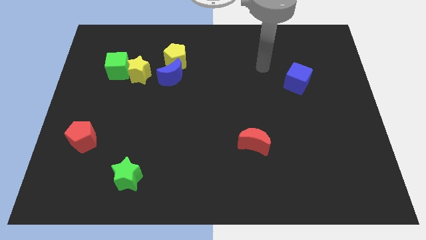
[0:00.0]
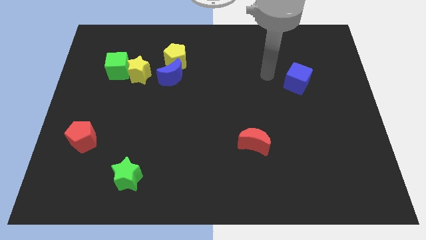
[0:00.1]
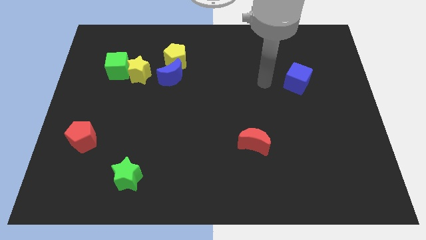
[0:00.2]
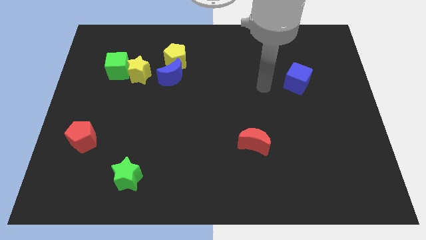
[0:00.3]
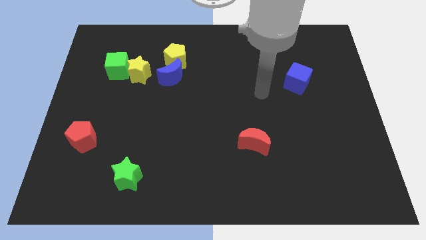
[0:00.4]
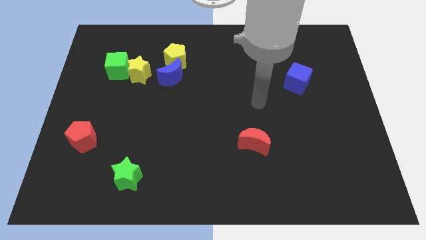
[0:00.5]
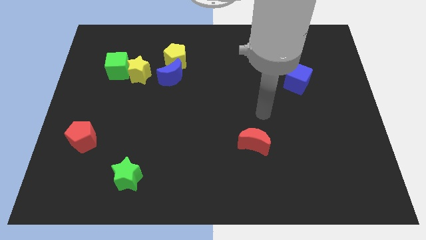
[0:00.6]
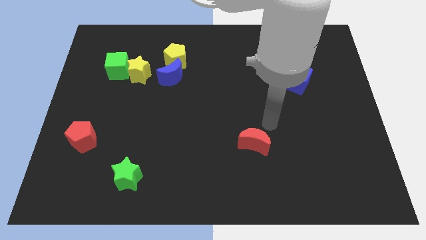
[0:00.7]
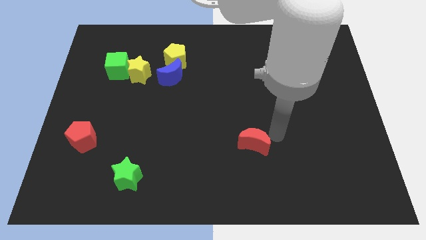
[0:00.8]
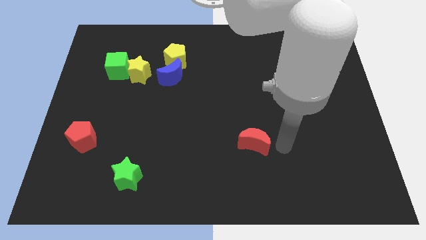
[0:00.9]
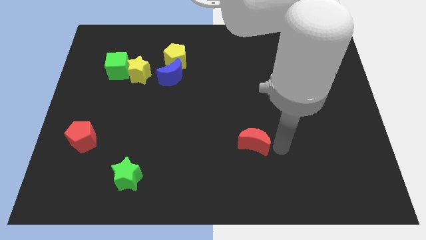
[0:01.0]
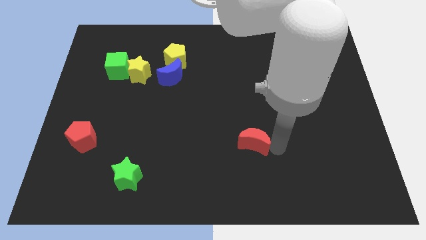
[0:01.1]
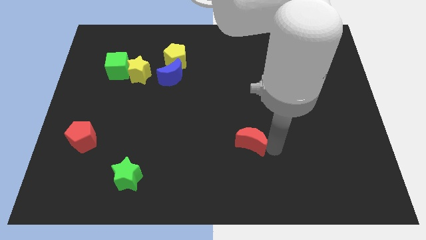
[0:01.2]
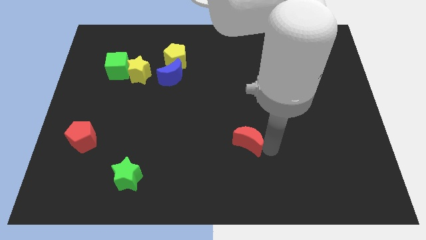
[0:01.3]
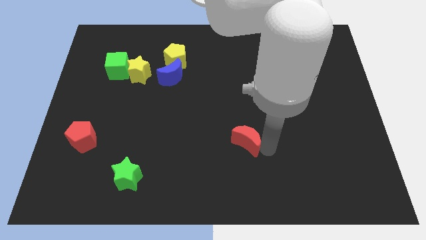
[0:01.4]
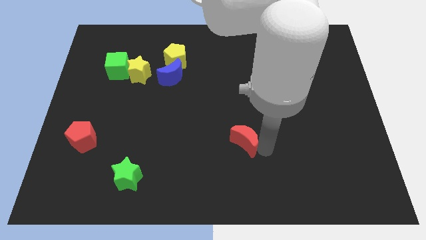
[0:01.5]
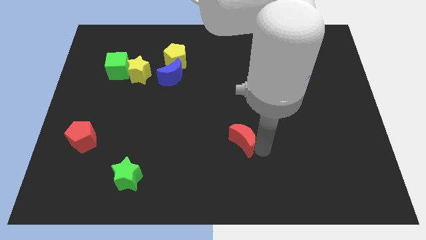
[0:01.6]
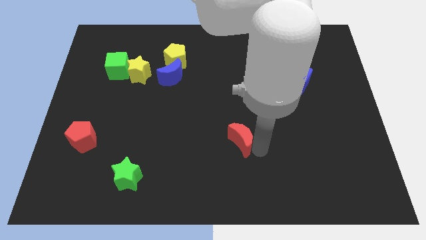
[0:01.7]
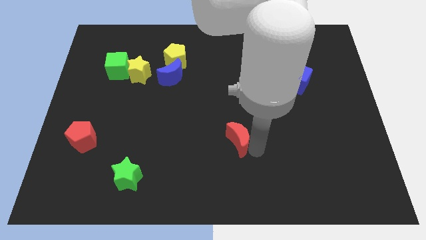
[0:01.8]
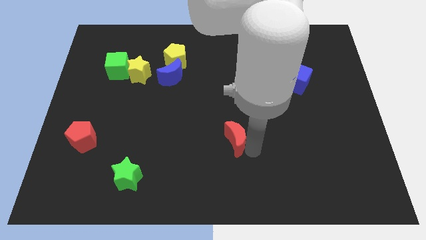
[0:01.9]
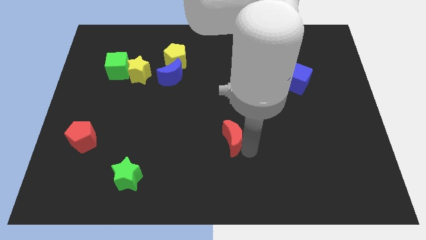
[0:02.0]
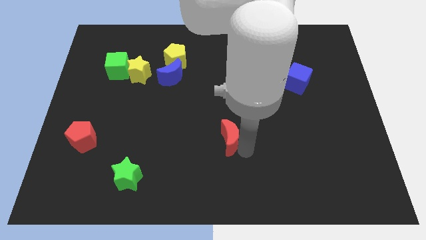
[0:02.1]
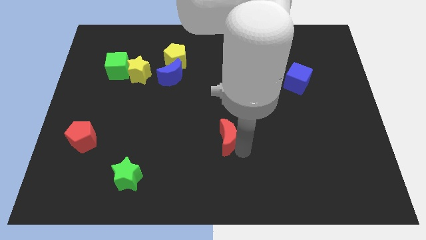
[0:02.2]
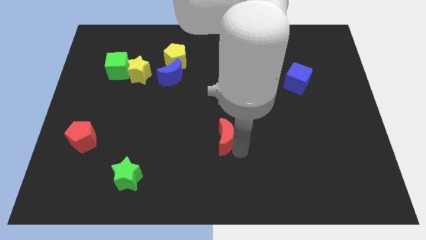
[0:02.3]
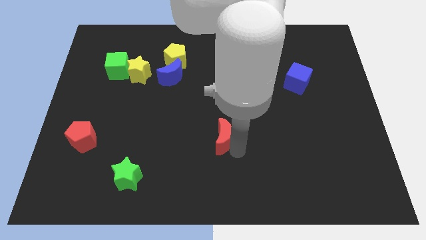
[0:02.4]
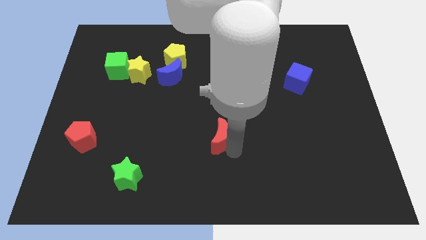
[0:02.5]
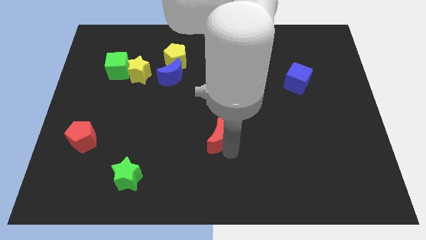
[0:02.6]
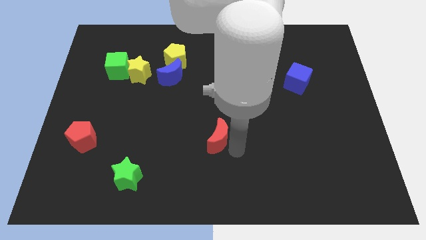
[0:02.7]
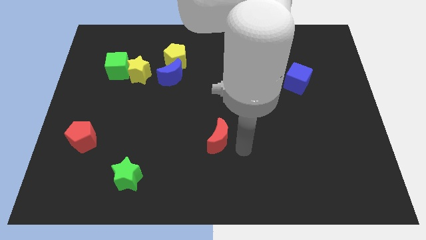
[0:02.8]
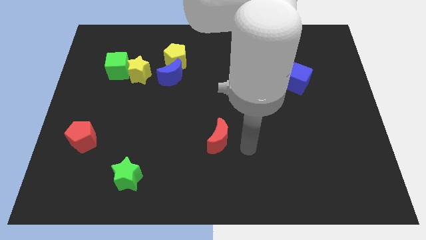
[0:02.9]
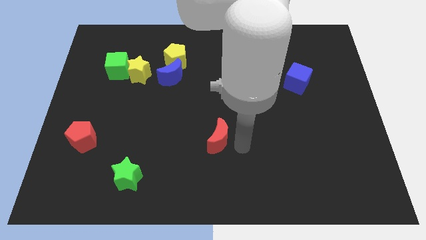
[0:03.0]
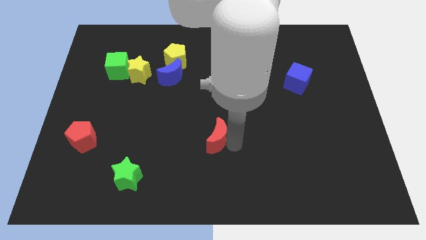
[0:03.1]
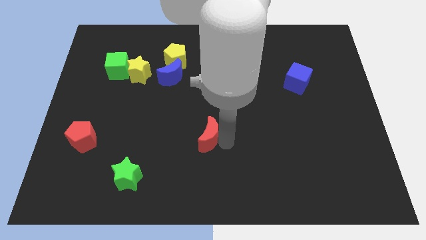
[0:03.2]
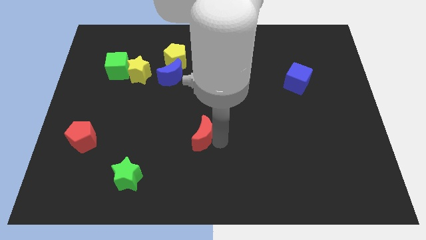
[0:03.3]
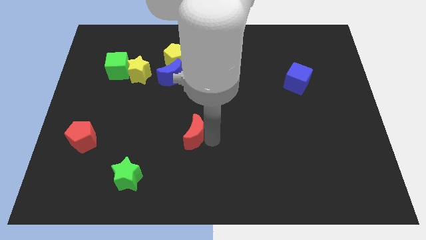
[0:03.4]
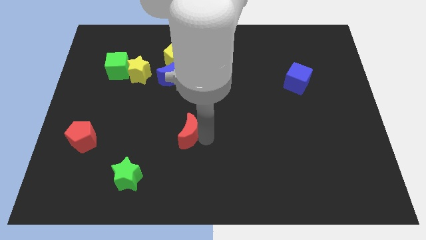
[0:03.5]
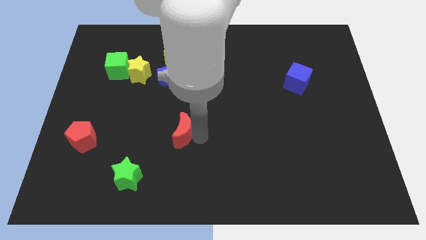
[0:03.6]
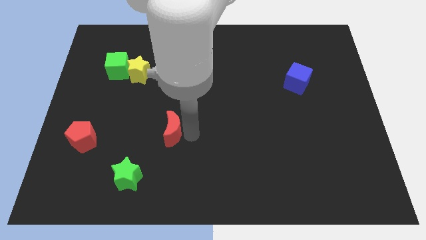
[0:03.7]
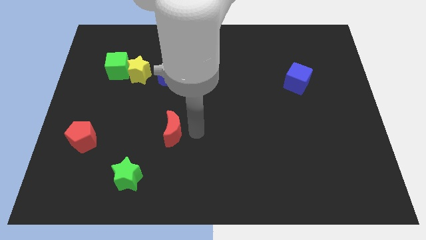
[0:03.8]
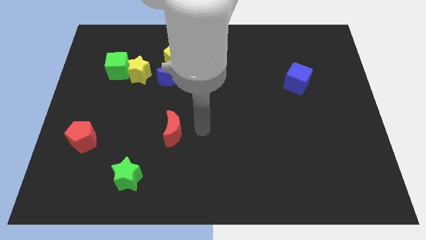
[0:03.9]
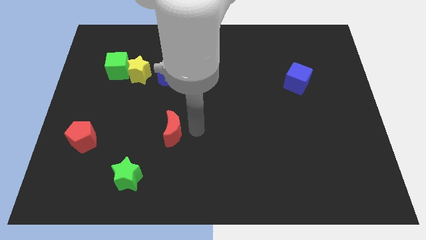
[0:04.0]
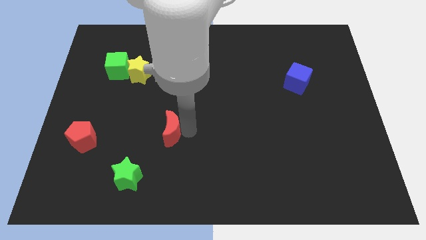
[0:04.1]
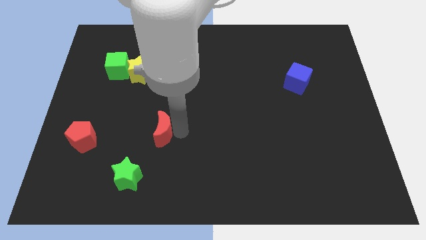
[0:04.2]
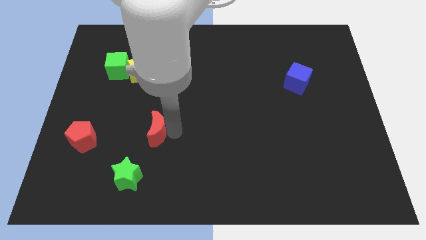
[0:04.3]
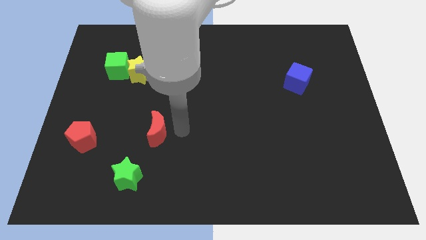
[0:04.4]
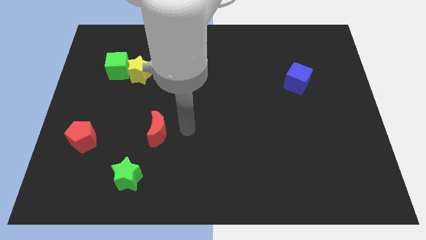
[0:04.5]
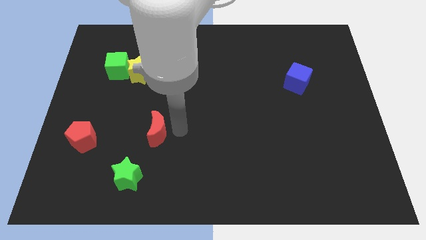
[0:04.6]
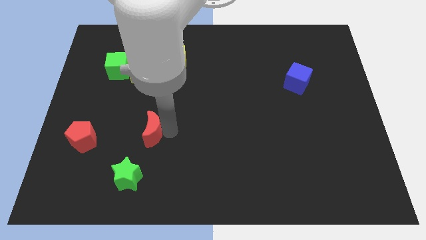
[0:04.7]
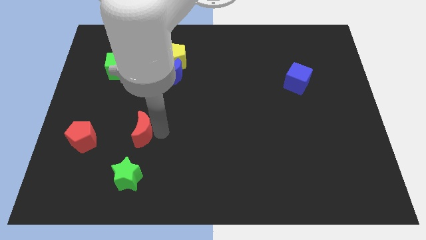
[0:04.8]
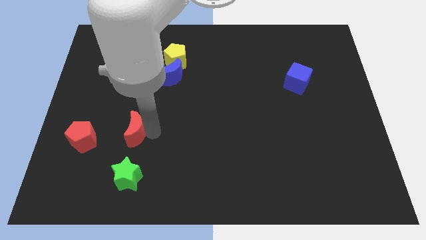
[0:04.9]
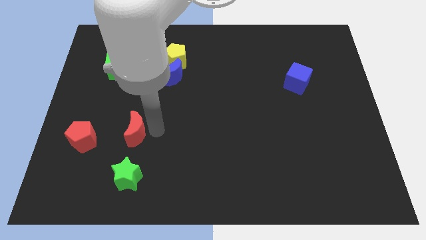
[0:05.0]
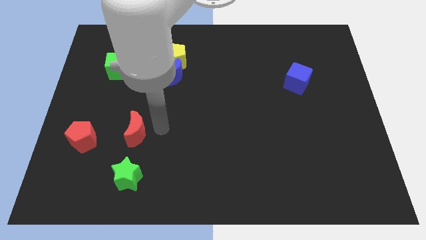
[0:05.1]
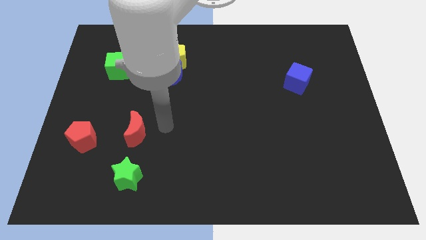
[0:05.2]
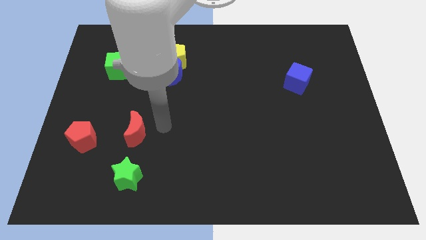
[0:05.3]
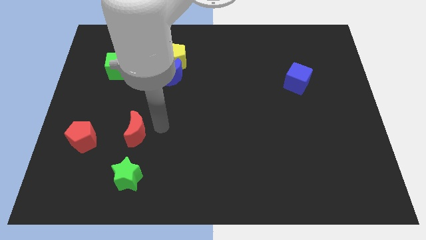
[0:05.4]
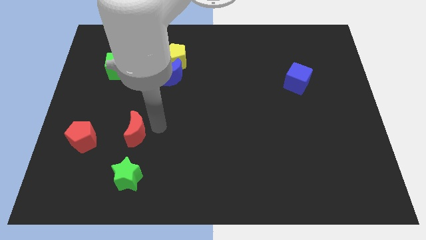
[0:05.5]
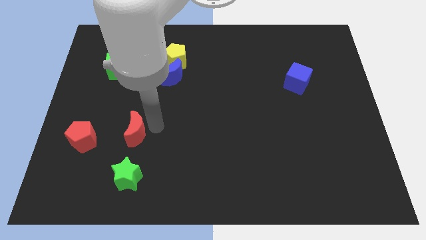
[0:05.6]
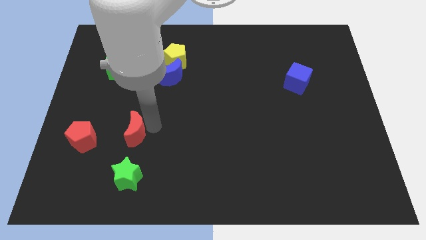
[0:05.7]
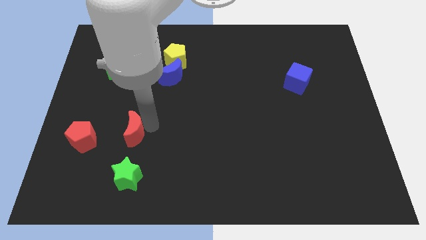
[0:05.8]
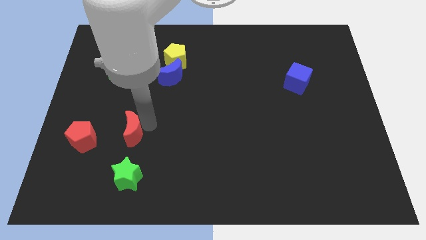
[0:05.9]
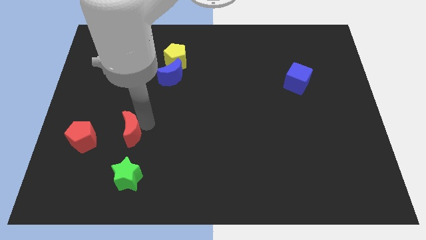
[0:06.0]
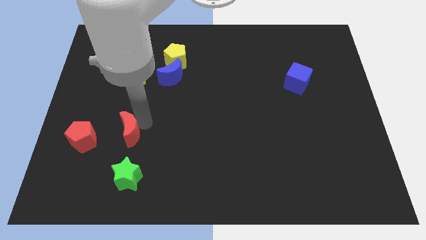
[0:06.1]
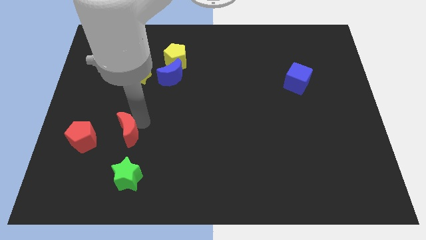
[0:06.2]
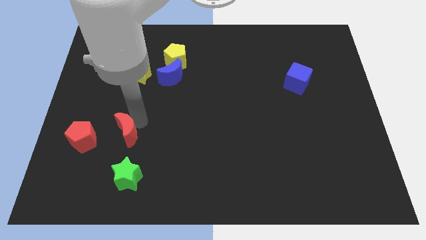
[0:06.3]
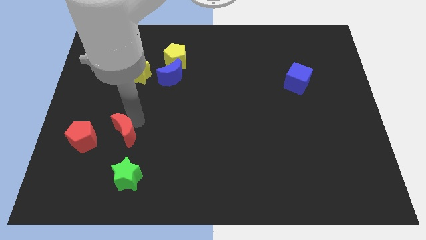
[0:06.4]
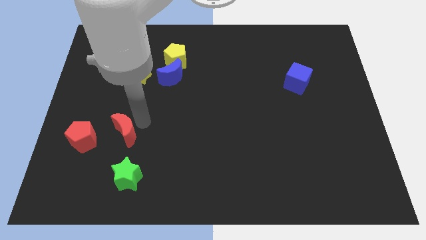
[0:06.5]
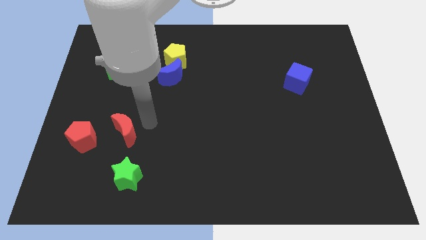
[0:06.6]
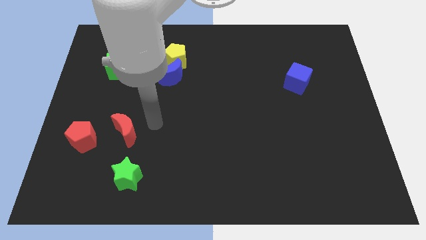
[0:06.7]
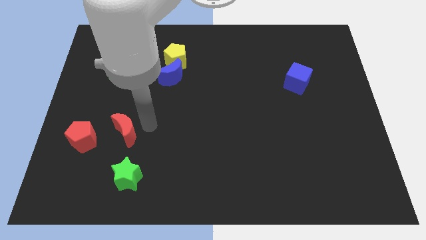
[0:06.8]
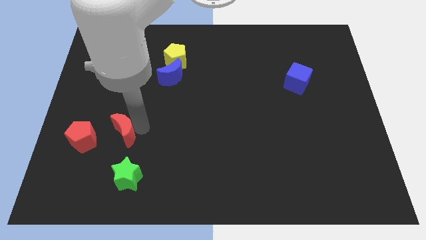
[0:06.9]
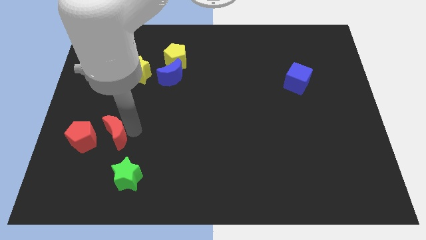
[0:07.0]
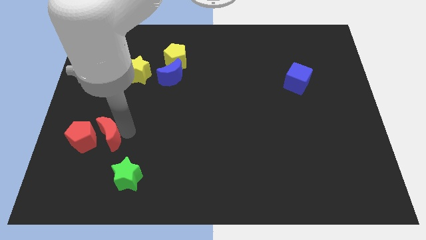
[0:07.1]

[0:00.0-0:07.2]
put the red moon to the red pentagon
